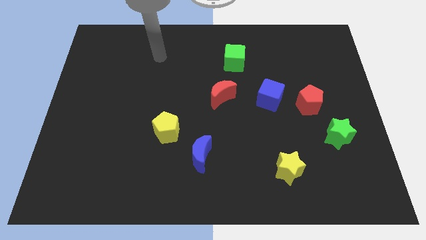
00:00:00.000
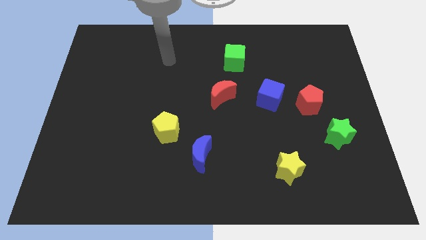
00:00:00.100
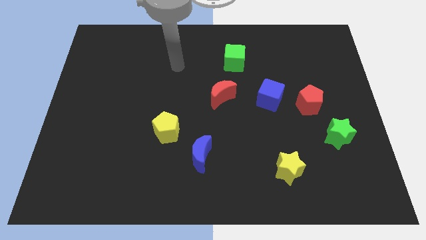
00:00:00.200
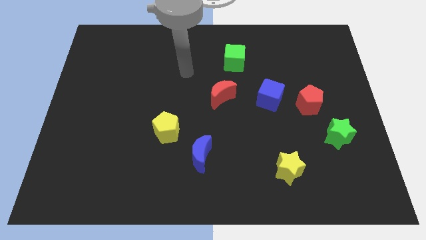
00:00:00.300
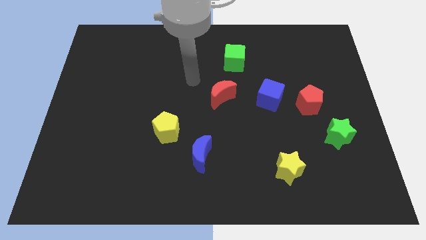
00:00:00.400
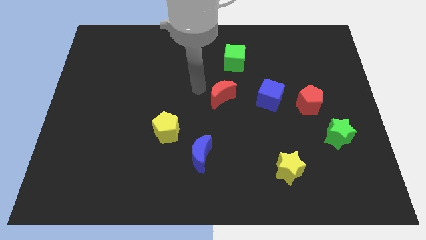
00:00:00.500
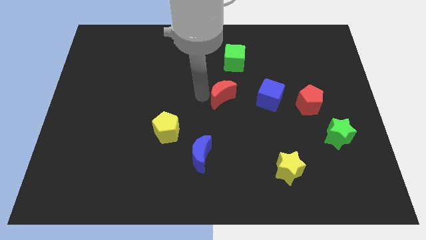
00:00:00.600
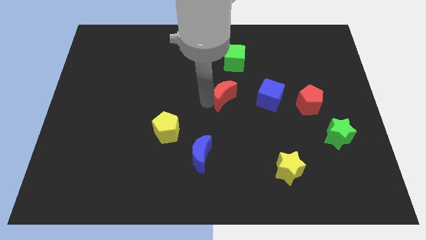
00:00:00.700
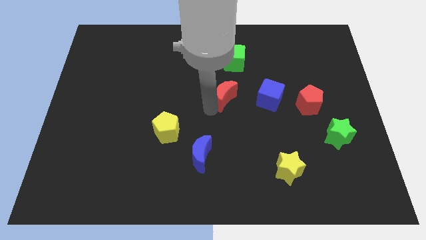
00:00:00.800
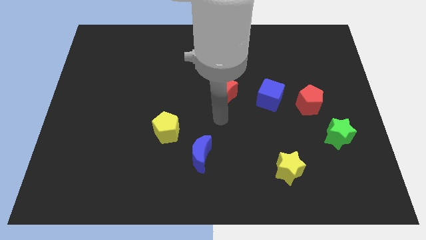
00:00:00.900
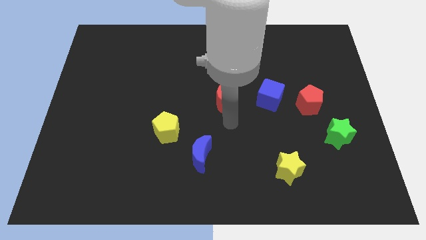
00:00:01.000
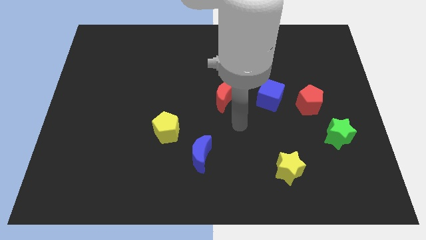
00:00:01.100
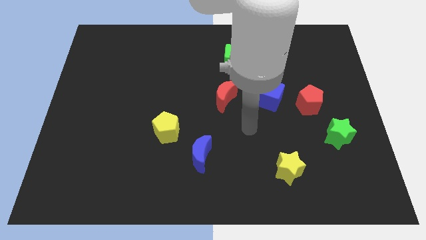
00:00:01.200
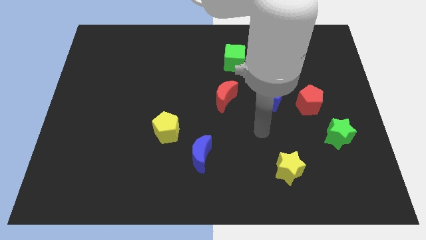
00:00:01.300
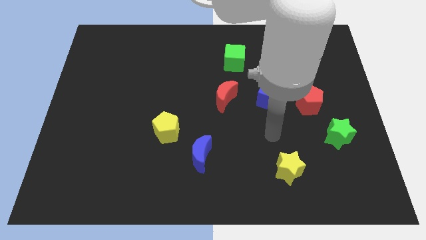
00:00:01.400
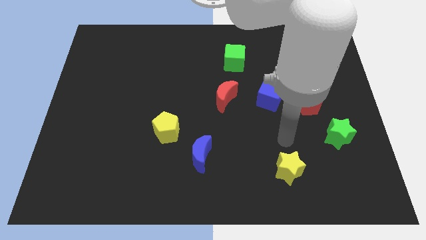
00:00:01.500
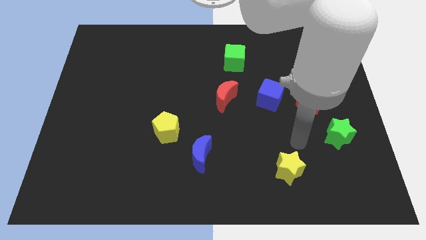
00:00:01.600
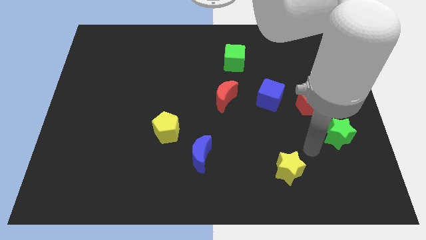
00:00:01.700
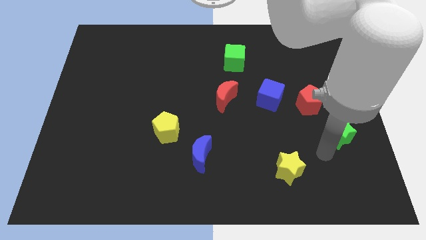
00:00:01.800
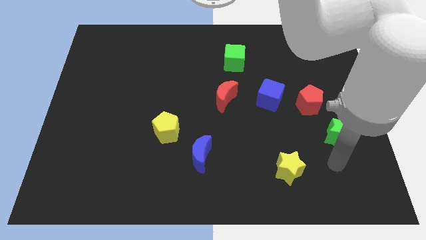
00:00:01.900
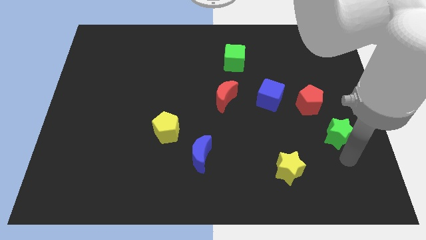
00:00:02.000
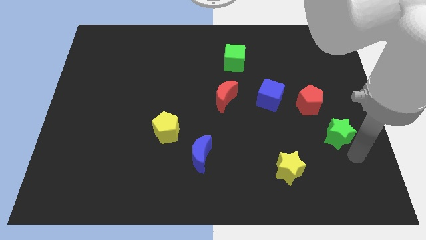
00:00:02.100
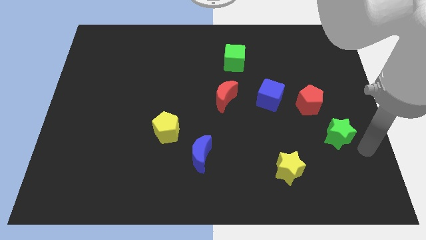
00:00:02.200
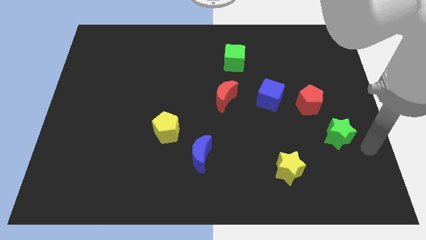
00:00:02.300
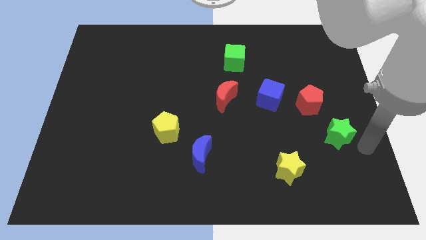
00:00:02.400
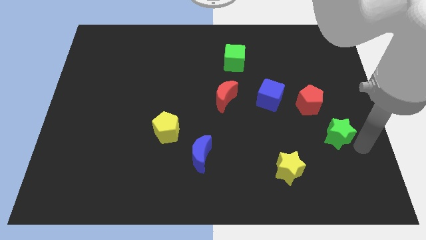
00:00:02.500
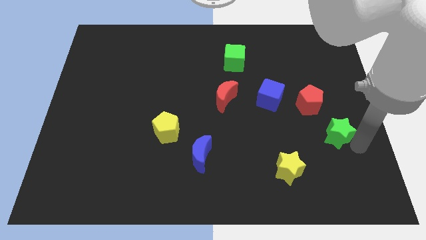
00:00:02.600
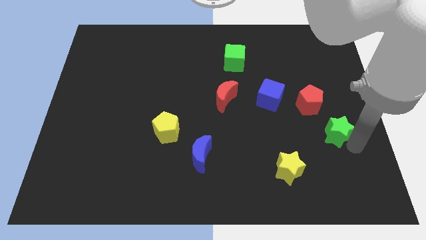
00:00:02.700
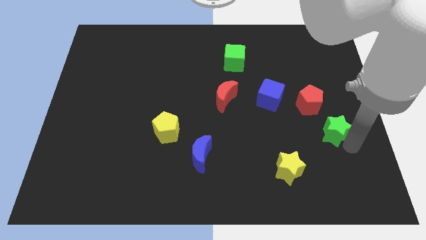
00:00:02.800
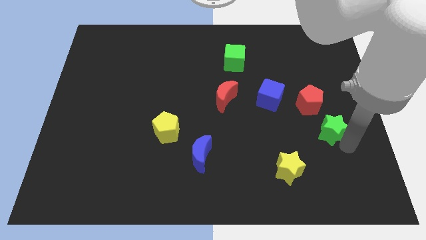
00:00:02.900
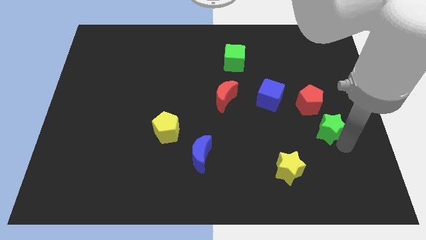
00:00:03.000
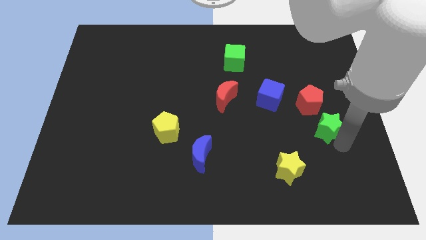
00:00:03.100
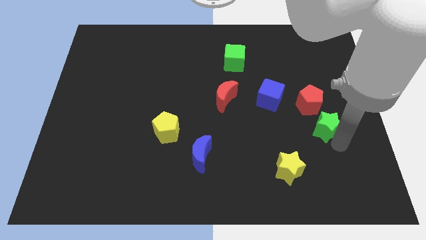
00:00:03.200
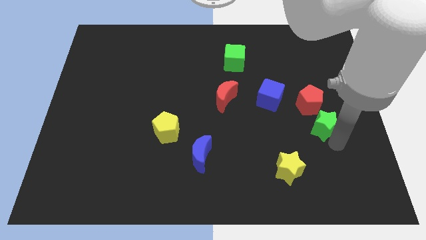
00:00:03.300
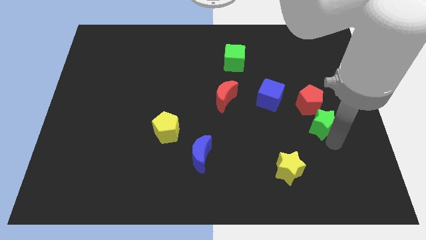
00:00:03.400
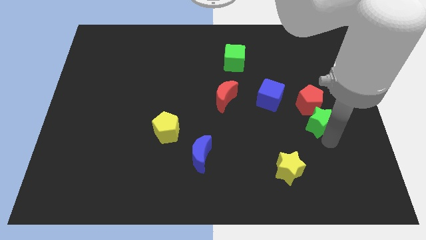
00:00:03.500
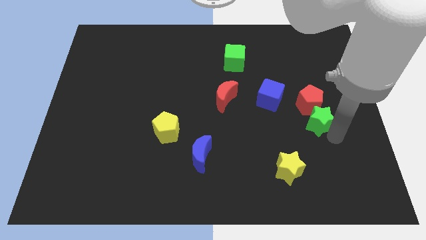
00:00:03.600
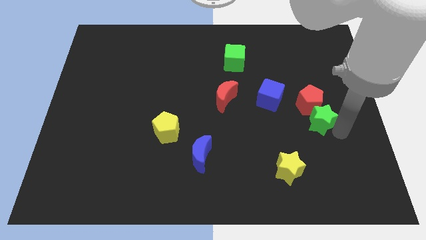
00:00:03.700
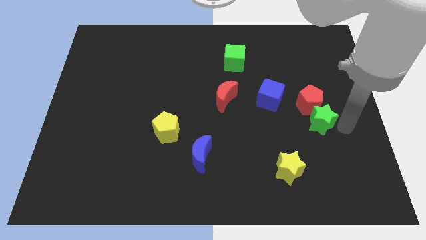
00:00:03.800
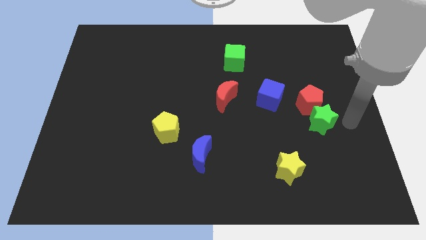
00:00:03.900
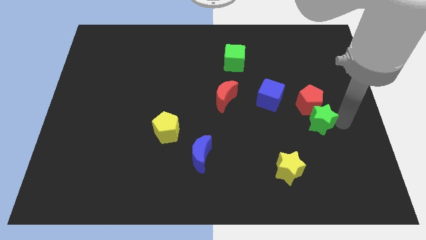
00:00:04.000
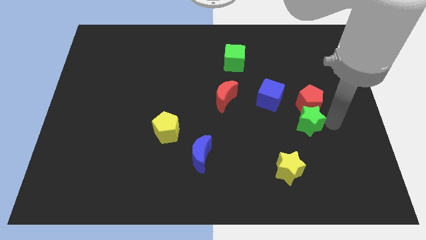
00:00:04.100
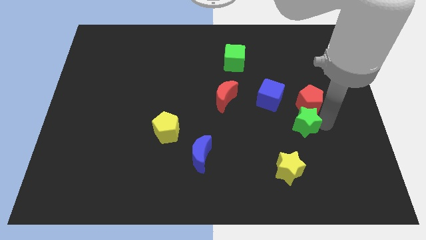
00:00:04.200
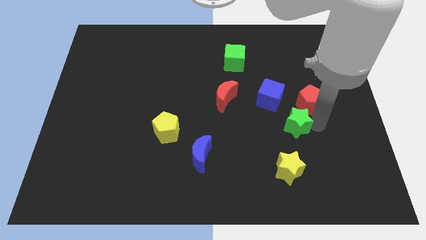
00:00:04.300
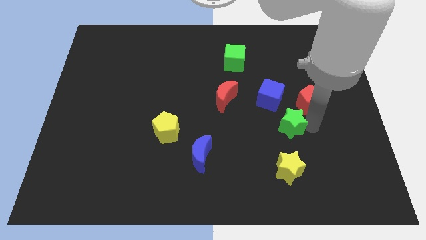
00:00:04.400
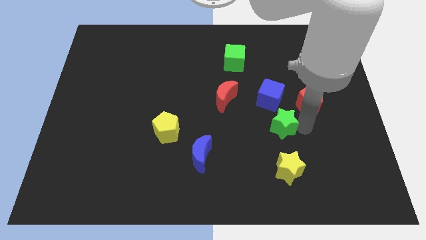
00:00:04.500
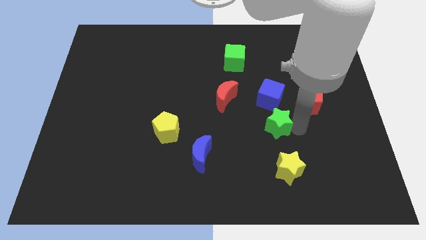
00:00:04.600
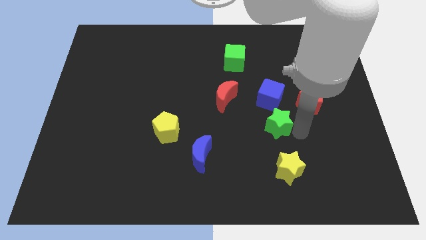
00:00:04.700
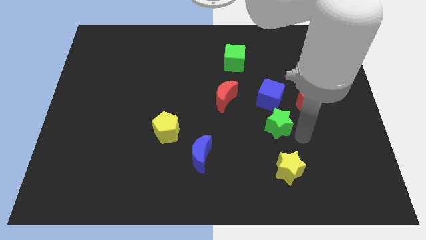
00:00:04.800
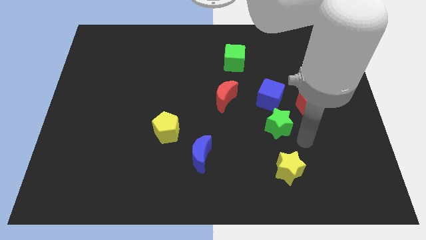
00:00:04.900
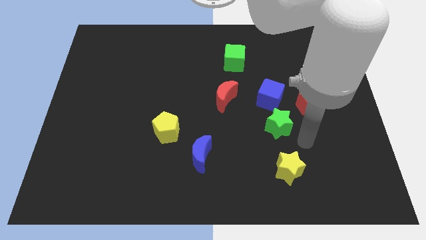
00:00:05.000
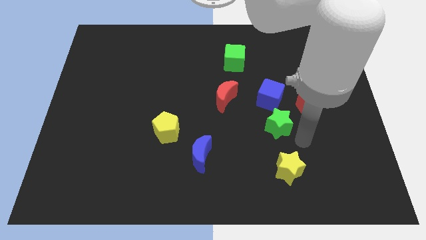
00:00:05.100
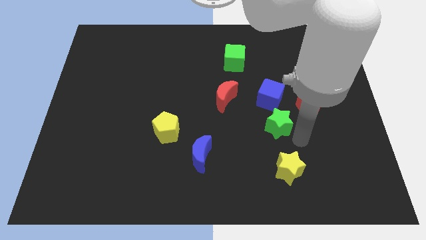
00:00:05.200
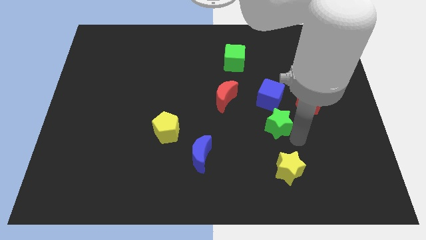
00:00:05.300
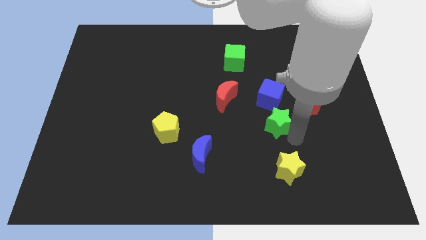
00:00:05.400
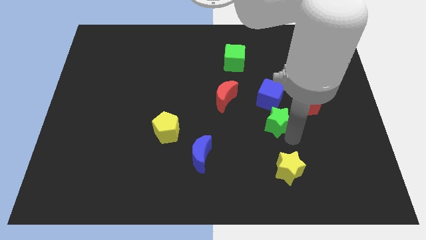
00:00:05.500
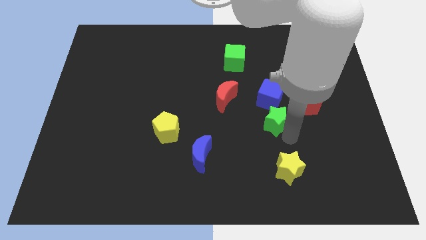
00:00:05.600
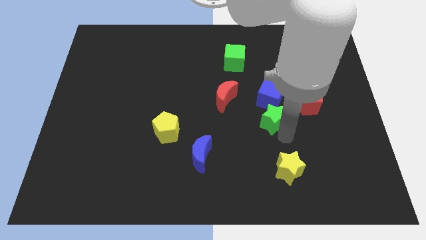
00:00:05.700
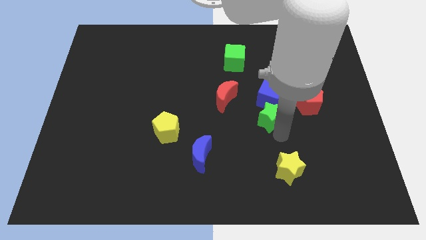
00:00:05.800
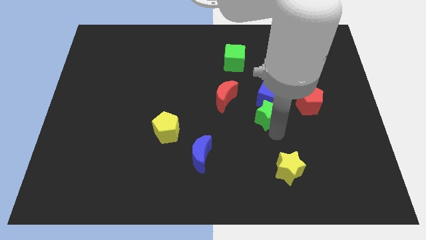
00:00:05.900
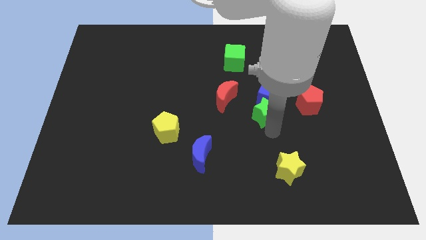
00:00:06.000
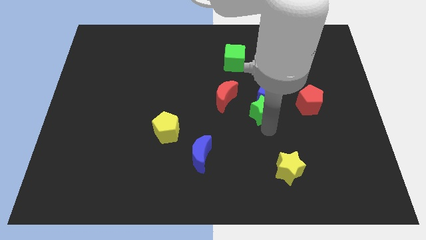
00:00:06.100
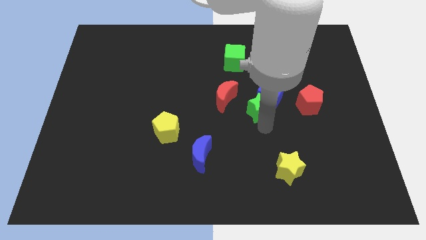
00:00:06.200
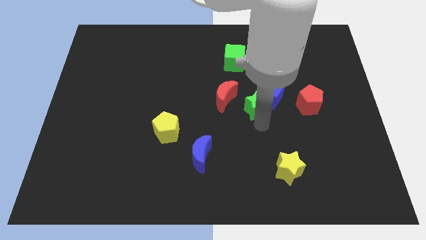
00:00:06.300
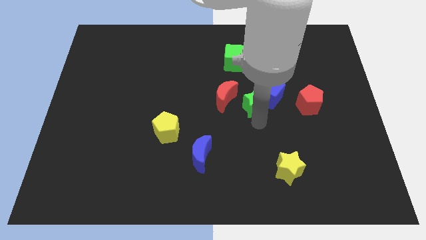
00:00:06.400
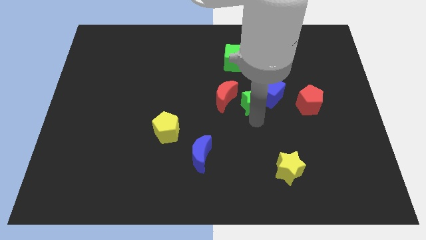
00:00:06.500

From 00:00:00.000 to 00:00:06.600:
put the green star below the green cube

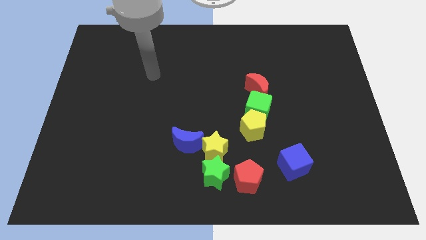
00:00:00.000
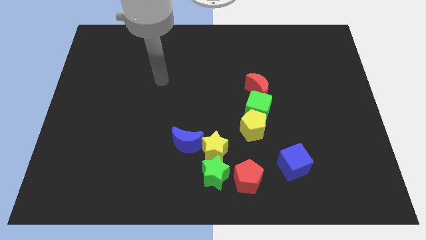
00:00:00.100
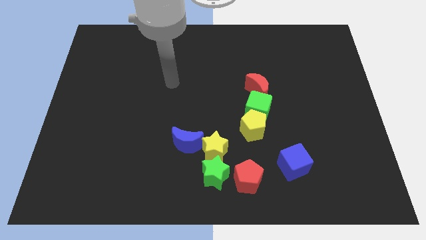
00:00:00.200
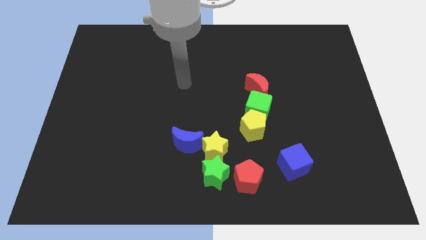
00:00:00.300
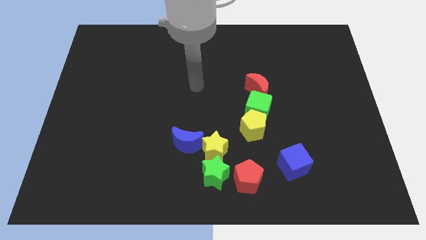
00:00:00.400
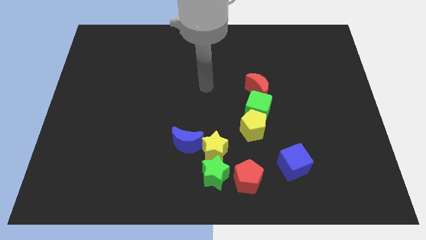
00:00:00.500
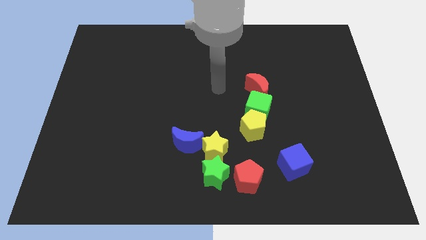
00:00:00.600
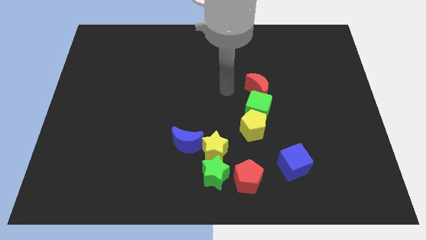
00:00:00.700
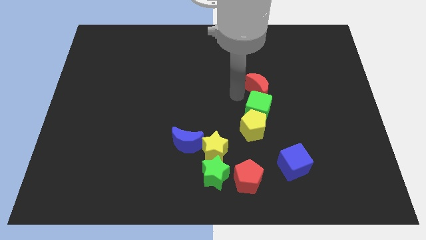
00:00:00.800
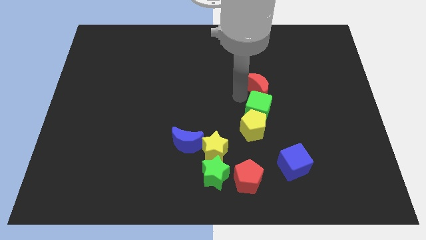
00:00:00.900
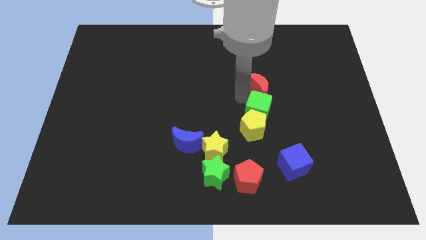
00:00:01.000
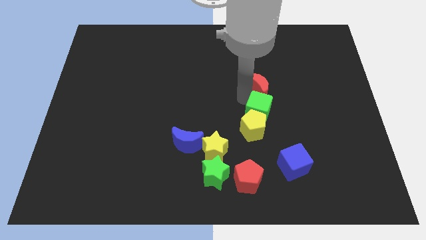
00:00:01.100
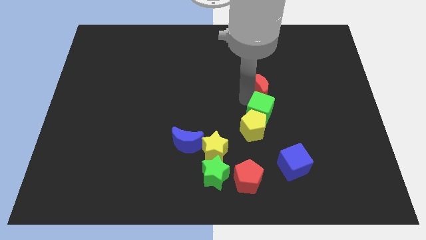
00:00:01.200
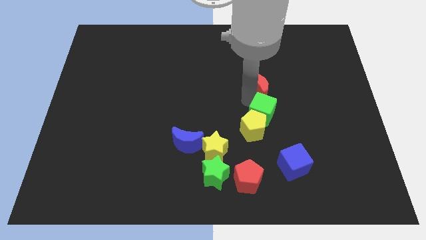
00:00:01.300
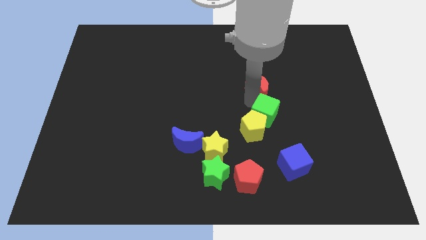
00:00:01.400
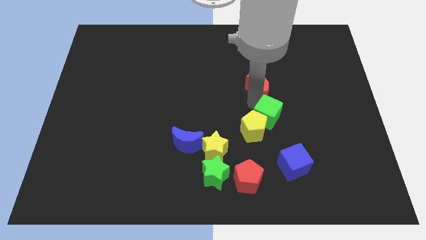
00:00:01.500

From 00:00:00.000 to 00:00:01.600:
push the green cube to the top side of the blue cube

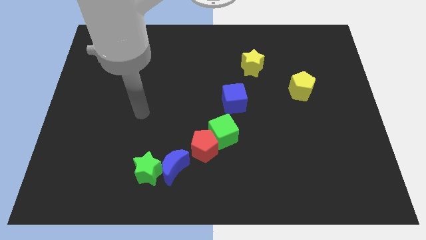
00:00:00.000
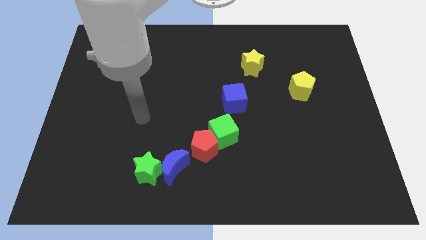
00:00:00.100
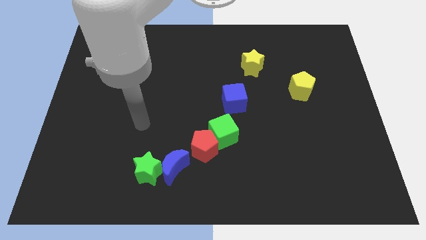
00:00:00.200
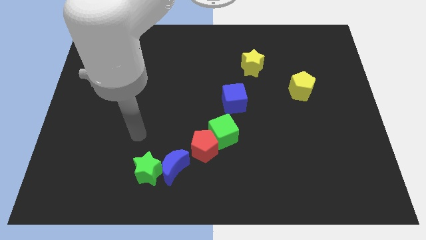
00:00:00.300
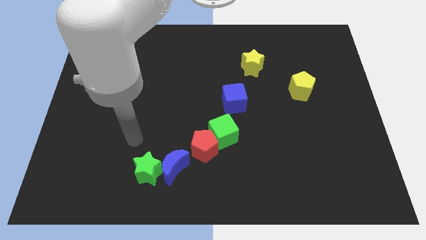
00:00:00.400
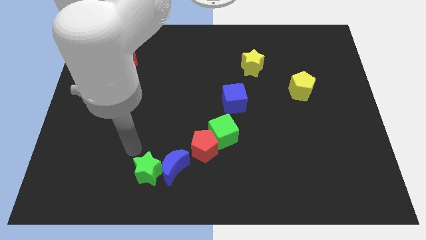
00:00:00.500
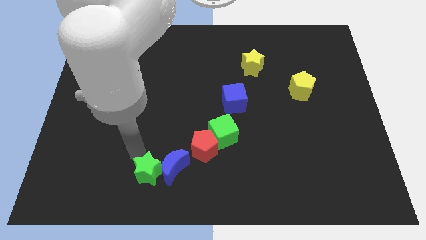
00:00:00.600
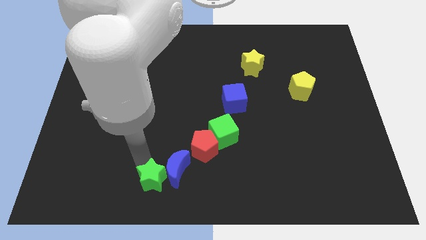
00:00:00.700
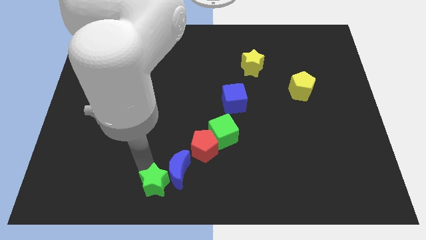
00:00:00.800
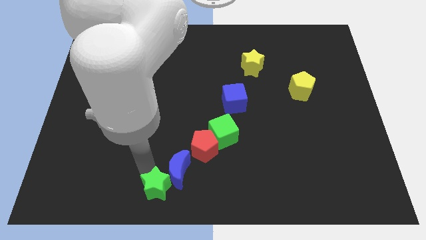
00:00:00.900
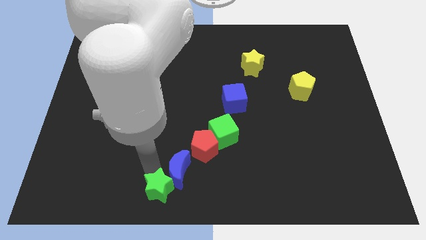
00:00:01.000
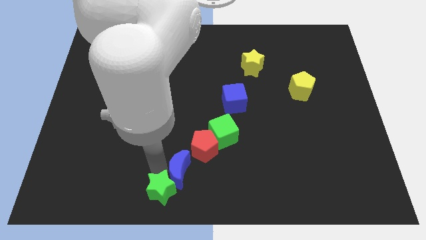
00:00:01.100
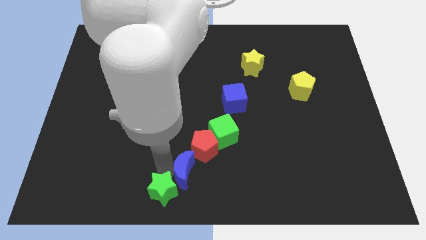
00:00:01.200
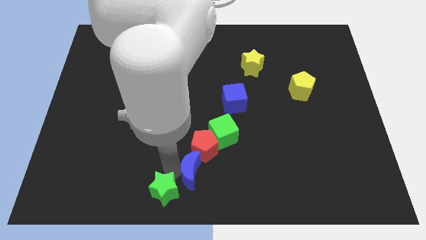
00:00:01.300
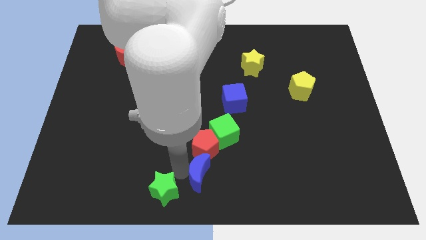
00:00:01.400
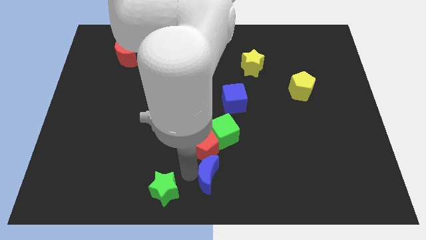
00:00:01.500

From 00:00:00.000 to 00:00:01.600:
push the blue moon to the bottom of the green cube
